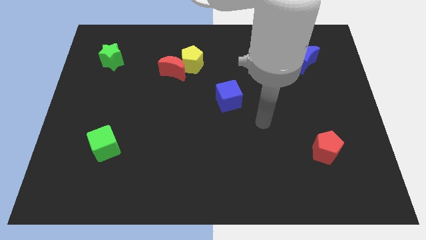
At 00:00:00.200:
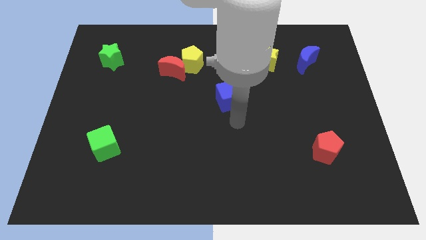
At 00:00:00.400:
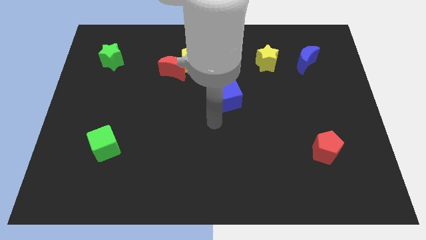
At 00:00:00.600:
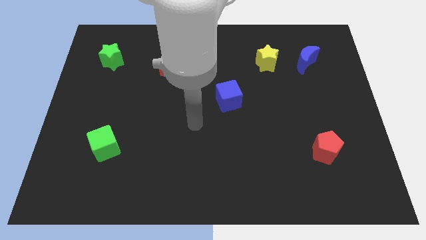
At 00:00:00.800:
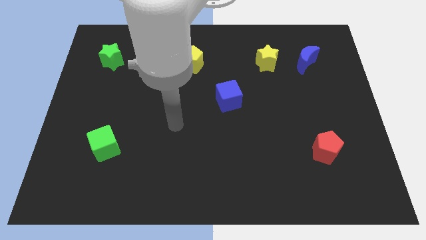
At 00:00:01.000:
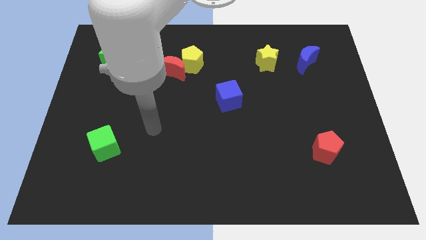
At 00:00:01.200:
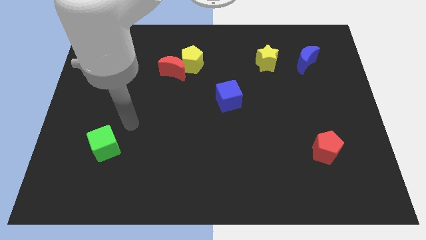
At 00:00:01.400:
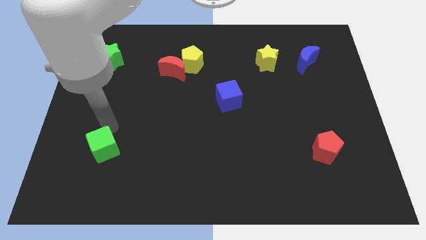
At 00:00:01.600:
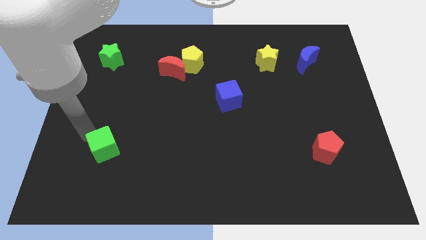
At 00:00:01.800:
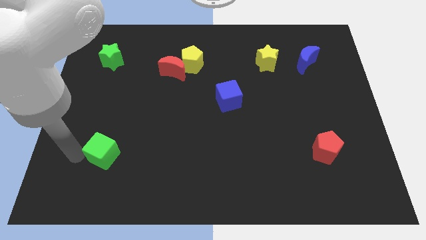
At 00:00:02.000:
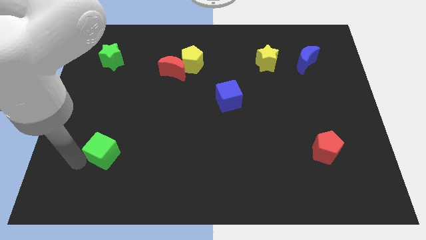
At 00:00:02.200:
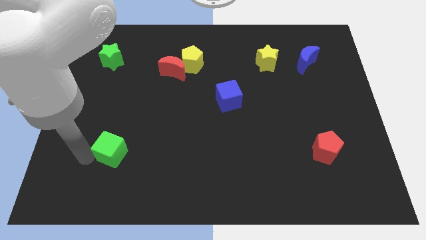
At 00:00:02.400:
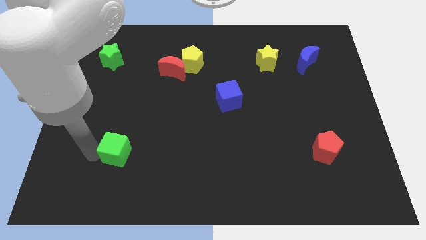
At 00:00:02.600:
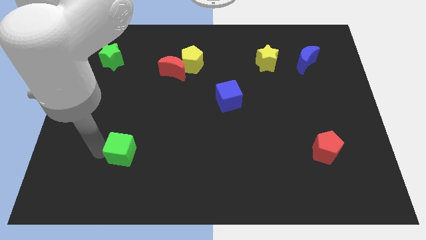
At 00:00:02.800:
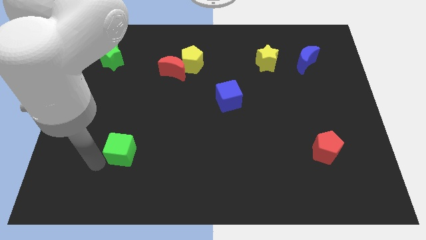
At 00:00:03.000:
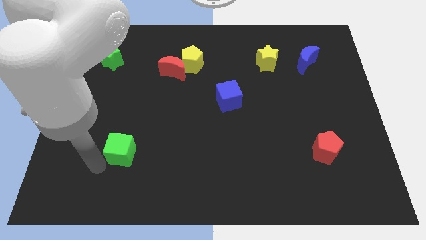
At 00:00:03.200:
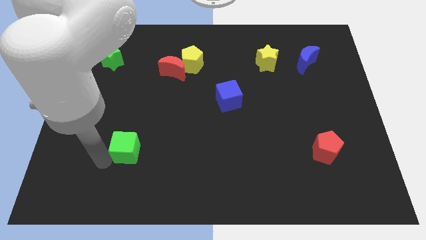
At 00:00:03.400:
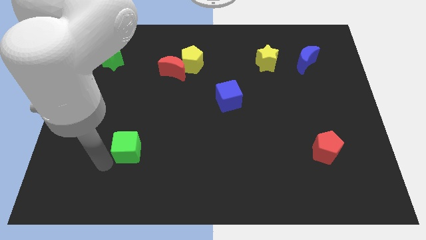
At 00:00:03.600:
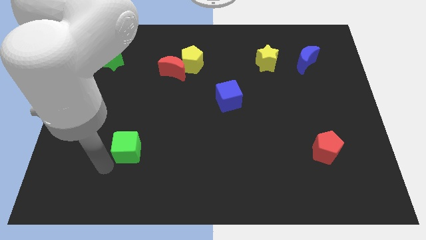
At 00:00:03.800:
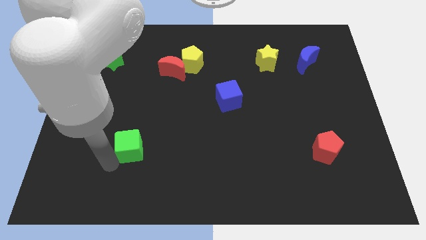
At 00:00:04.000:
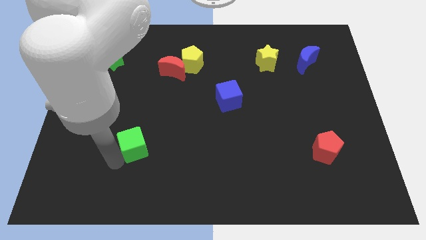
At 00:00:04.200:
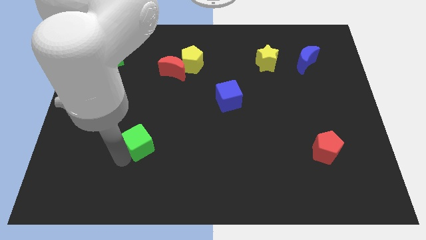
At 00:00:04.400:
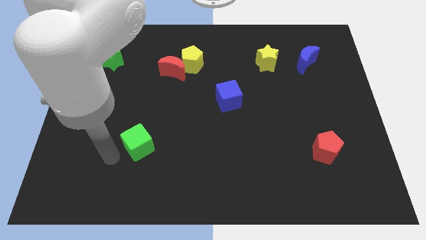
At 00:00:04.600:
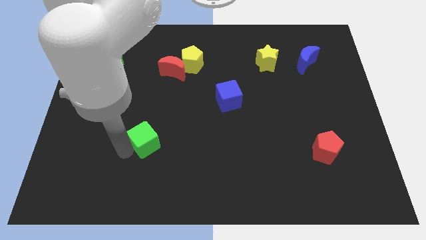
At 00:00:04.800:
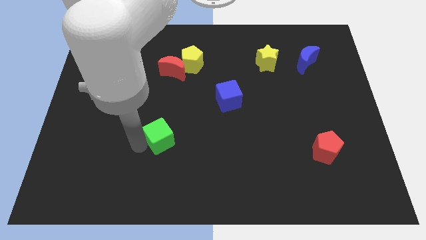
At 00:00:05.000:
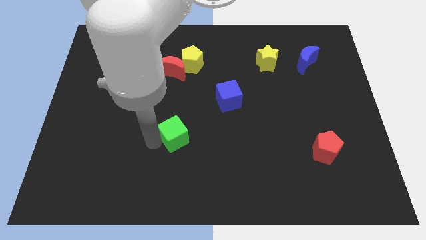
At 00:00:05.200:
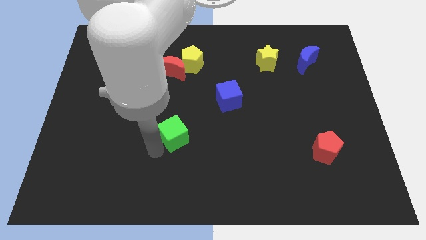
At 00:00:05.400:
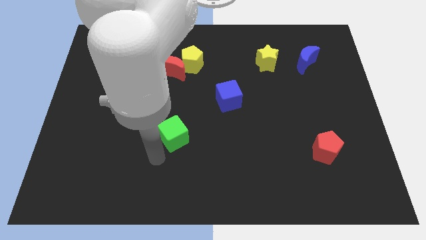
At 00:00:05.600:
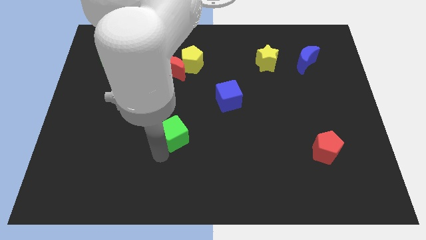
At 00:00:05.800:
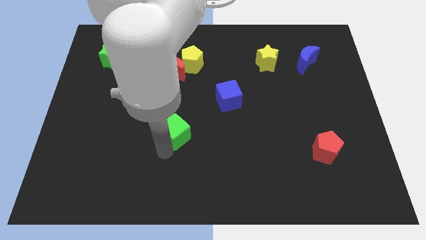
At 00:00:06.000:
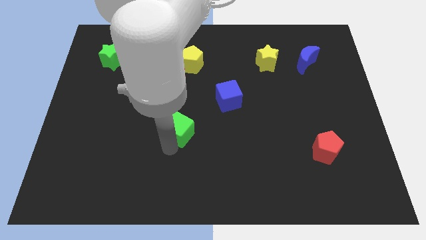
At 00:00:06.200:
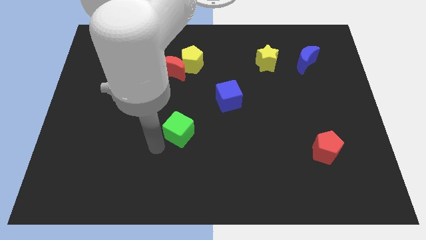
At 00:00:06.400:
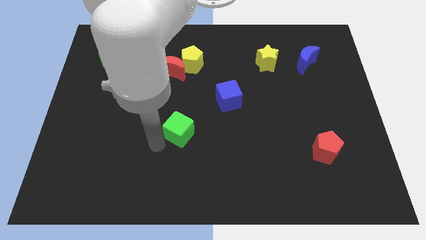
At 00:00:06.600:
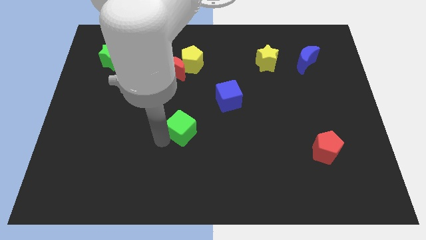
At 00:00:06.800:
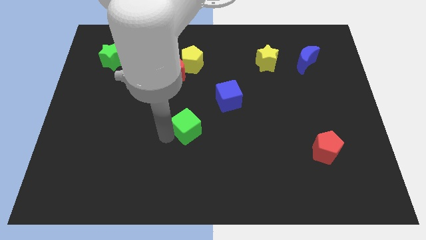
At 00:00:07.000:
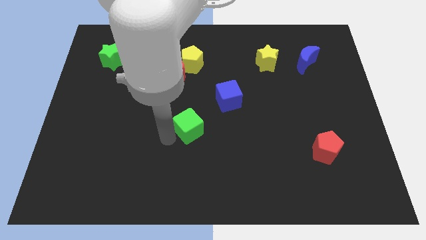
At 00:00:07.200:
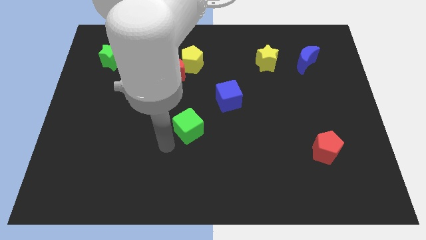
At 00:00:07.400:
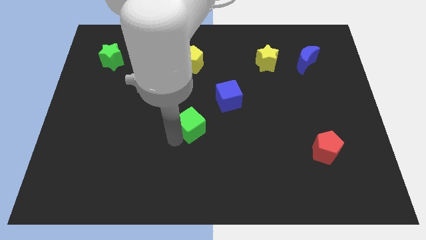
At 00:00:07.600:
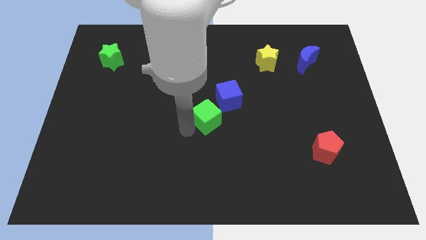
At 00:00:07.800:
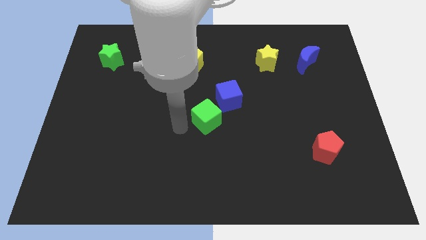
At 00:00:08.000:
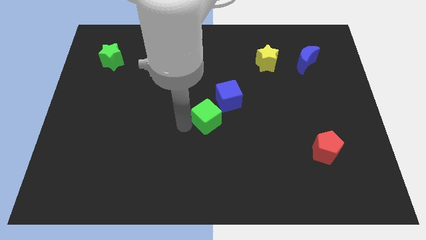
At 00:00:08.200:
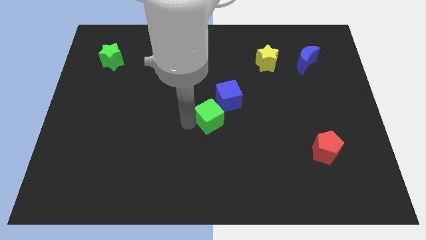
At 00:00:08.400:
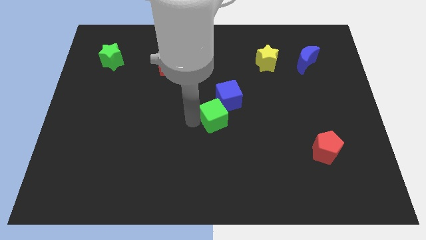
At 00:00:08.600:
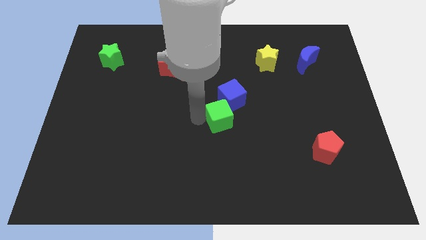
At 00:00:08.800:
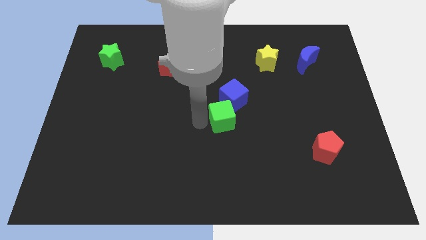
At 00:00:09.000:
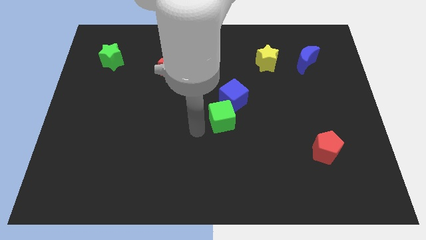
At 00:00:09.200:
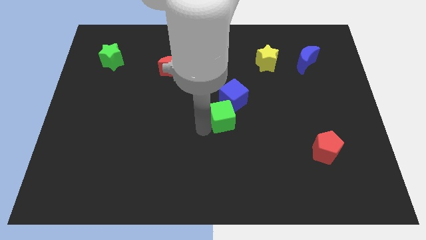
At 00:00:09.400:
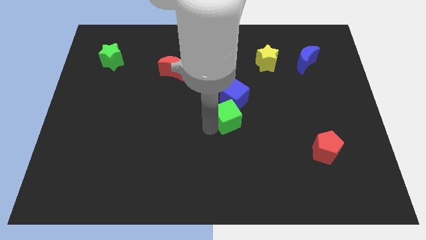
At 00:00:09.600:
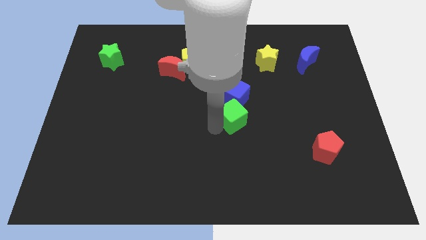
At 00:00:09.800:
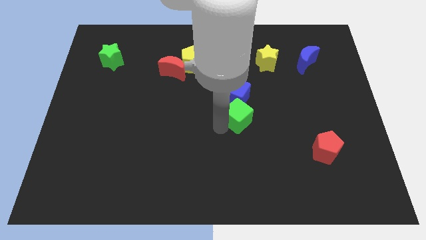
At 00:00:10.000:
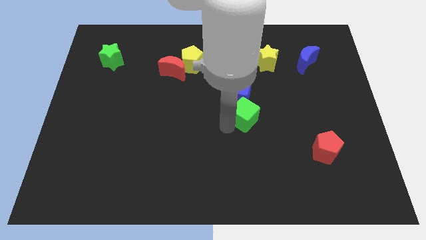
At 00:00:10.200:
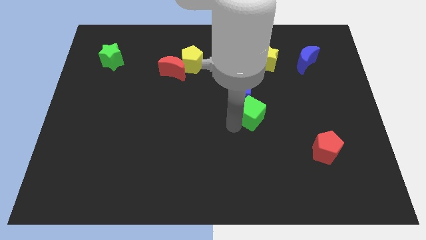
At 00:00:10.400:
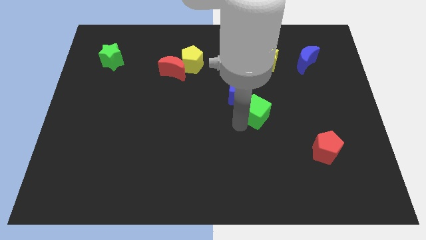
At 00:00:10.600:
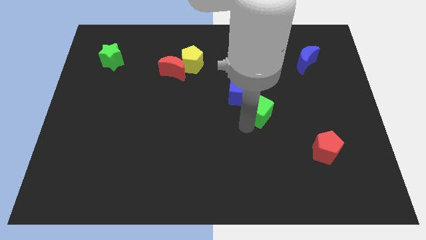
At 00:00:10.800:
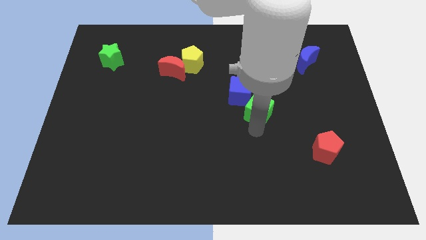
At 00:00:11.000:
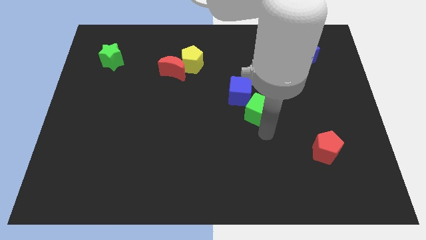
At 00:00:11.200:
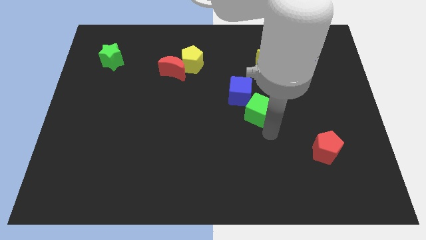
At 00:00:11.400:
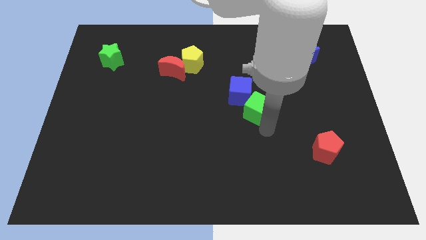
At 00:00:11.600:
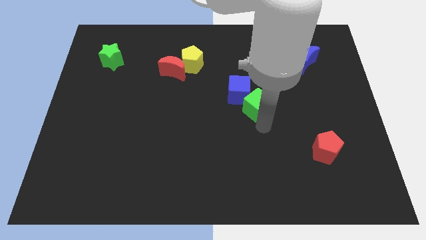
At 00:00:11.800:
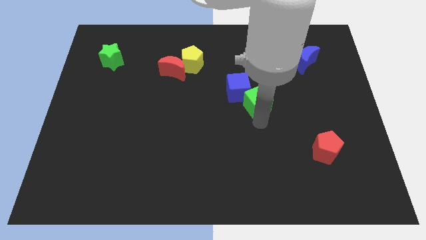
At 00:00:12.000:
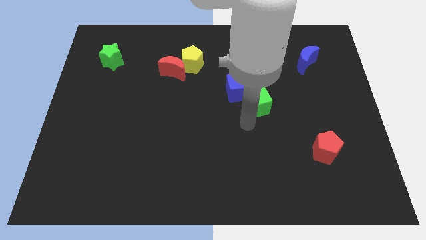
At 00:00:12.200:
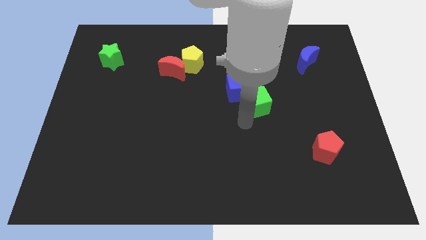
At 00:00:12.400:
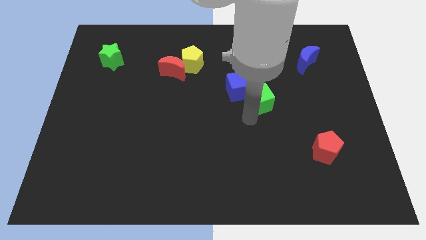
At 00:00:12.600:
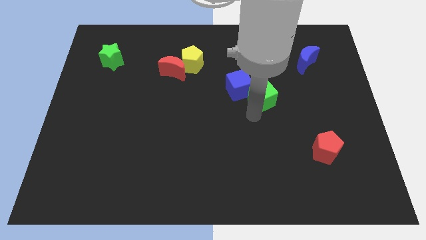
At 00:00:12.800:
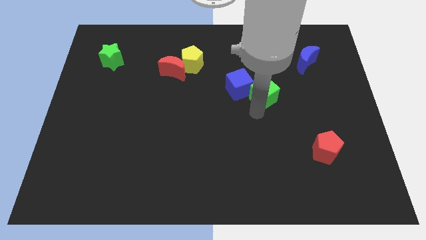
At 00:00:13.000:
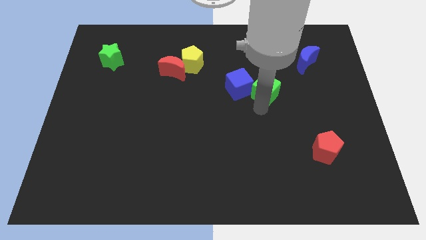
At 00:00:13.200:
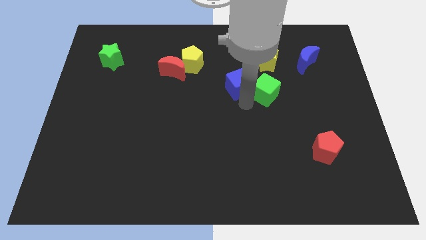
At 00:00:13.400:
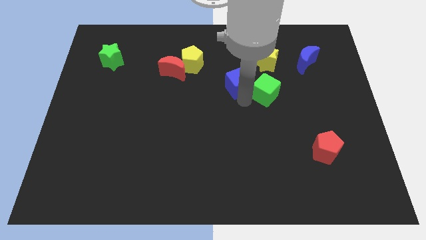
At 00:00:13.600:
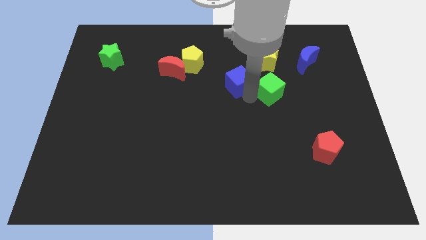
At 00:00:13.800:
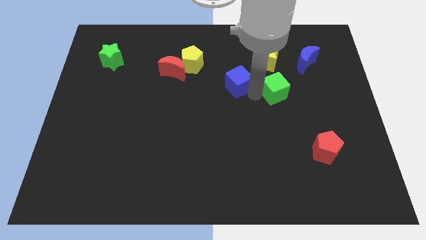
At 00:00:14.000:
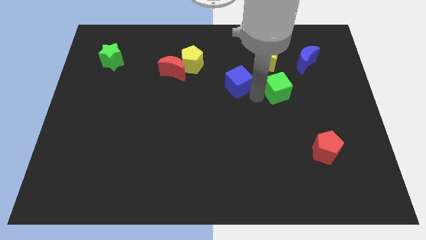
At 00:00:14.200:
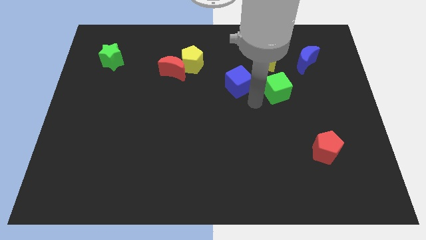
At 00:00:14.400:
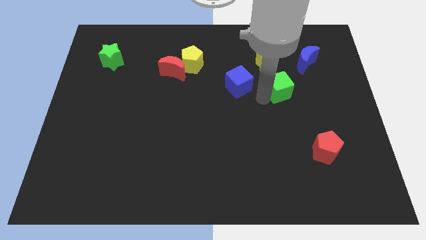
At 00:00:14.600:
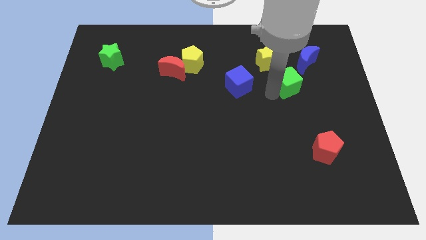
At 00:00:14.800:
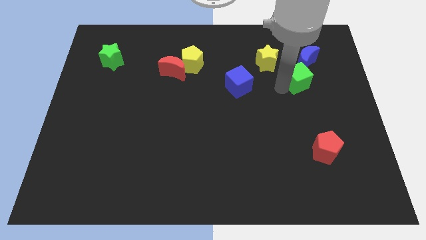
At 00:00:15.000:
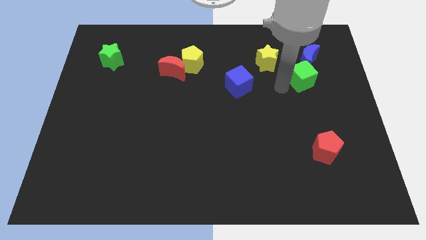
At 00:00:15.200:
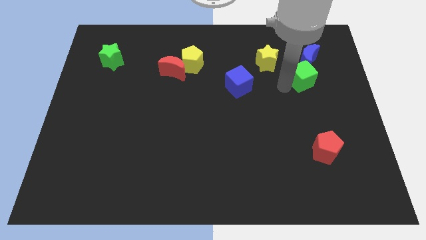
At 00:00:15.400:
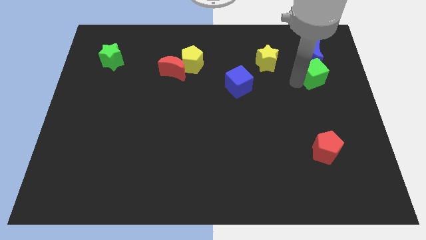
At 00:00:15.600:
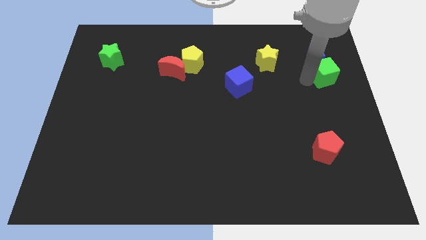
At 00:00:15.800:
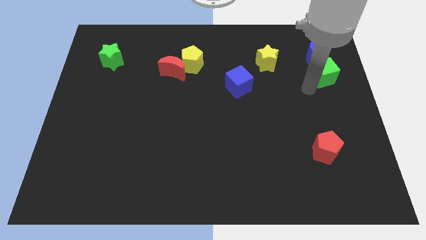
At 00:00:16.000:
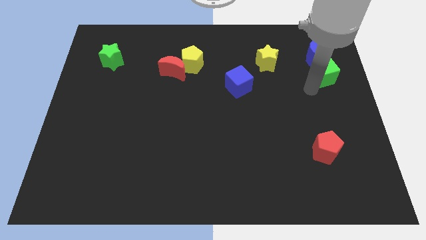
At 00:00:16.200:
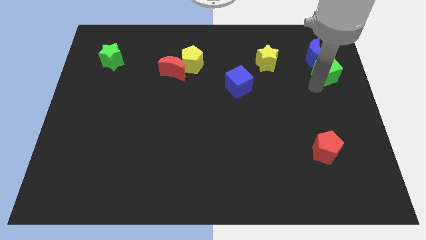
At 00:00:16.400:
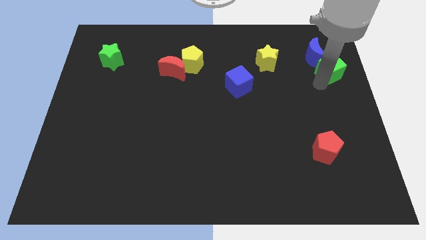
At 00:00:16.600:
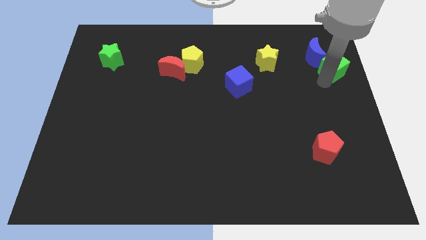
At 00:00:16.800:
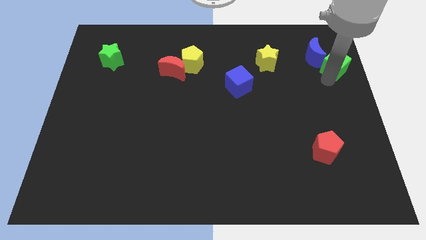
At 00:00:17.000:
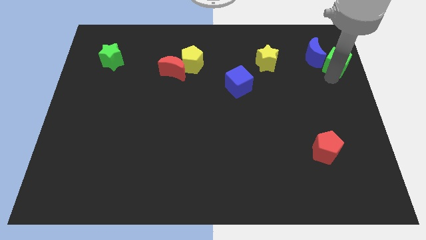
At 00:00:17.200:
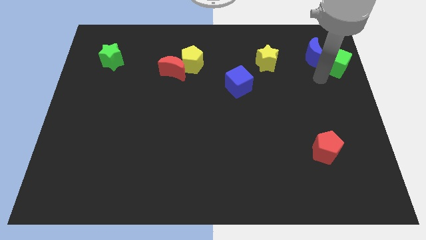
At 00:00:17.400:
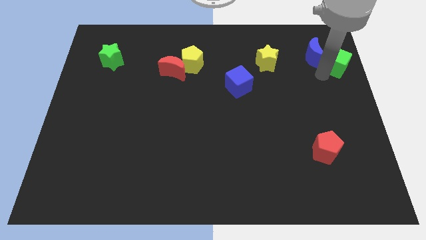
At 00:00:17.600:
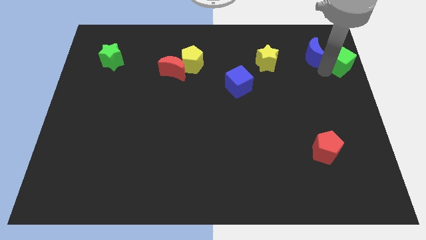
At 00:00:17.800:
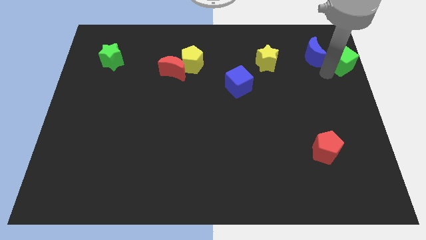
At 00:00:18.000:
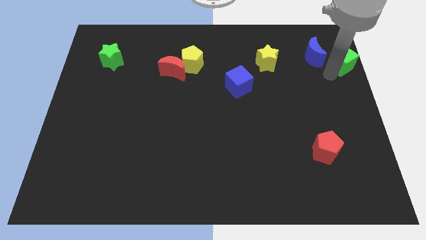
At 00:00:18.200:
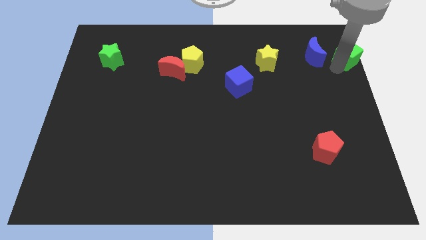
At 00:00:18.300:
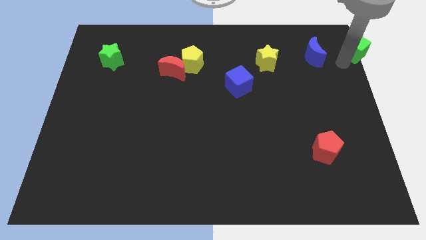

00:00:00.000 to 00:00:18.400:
put the green cube to the top right corner
